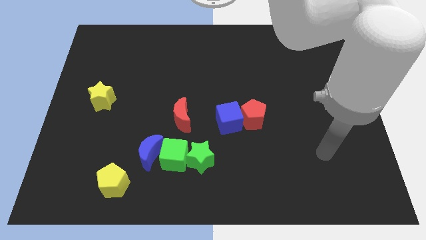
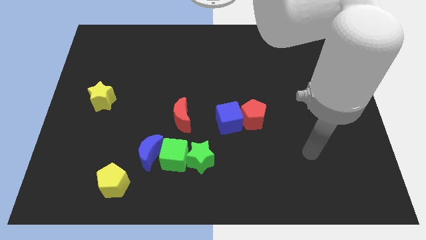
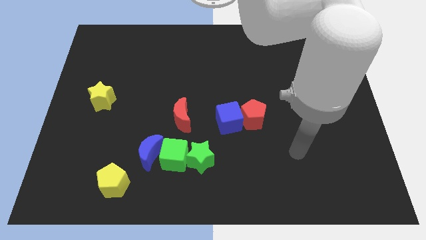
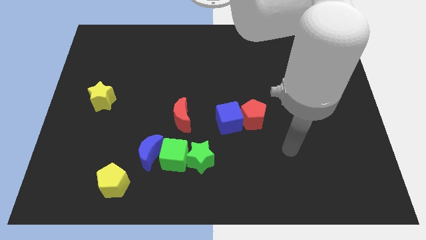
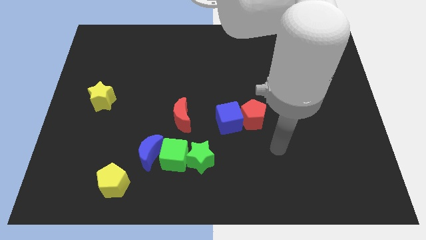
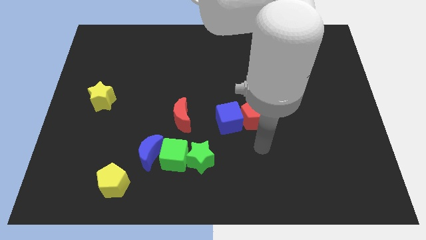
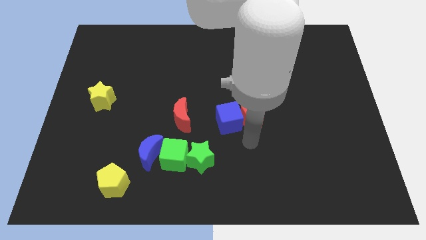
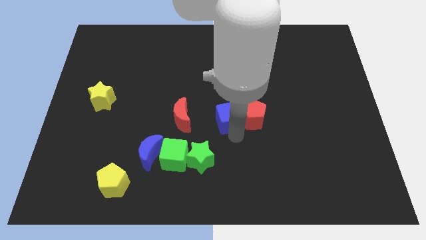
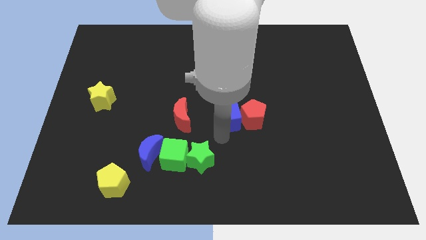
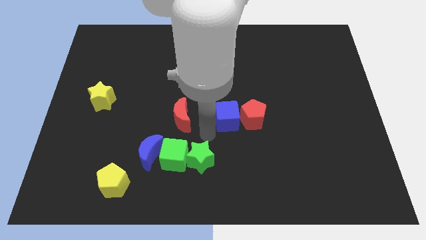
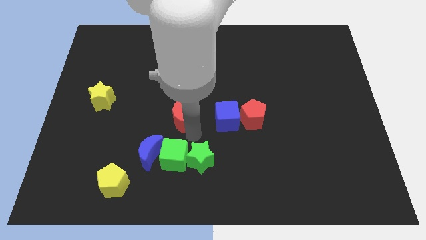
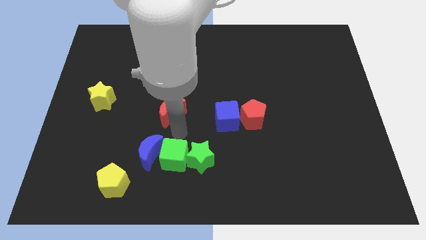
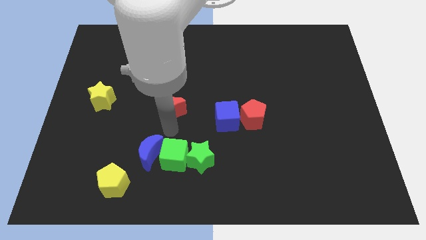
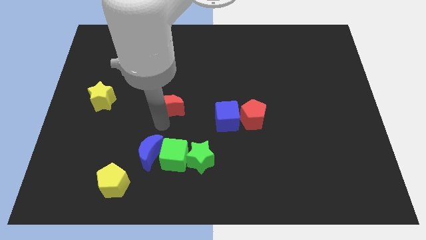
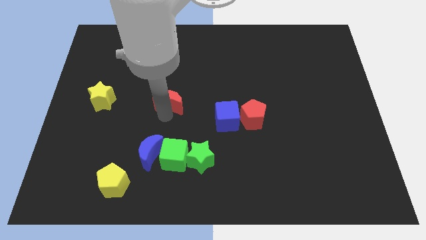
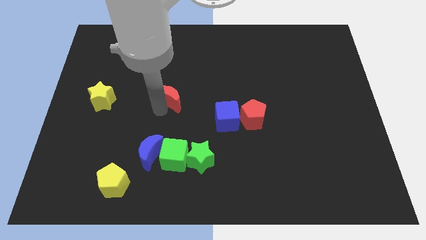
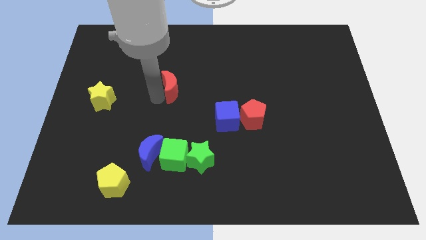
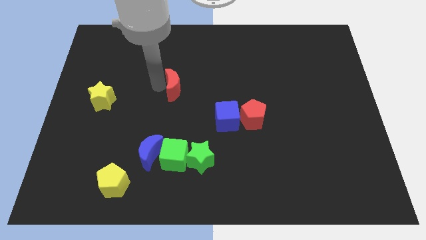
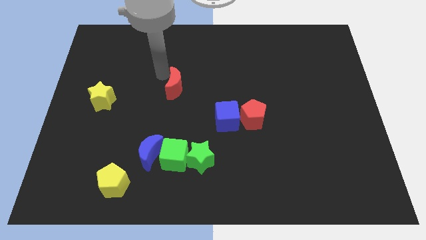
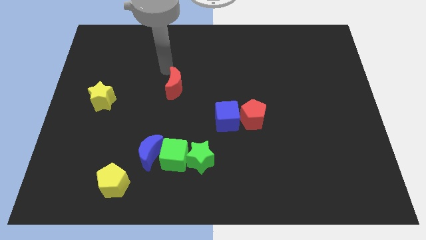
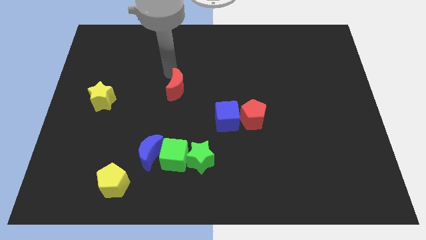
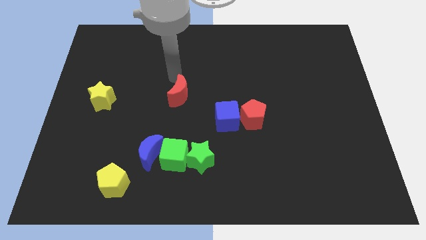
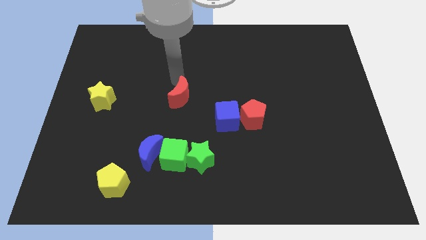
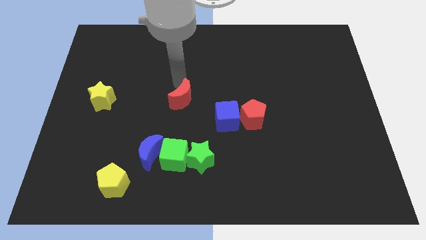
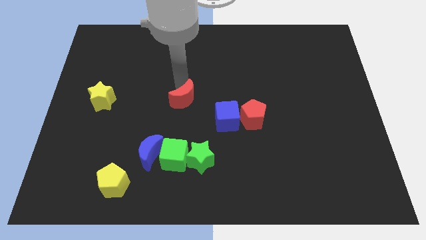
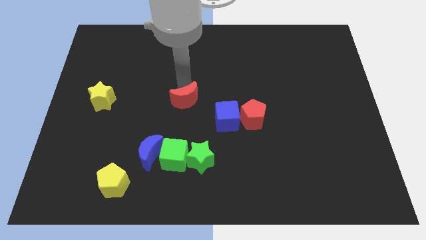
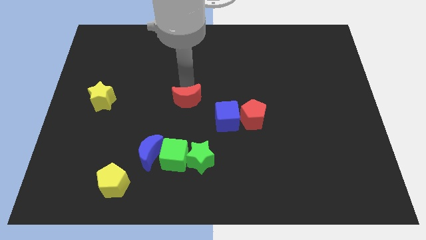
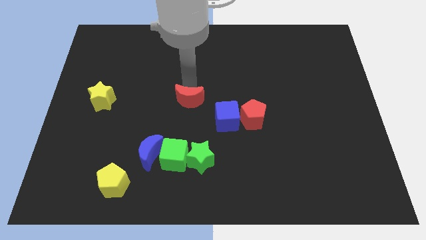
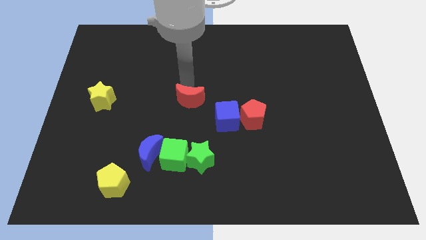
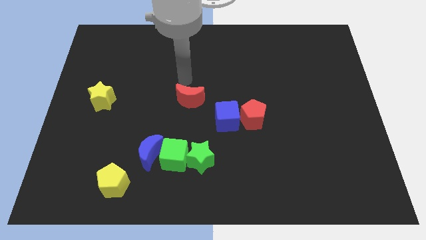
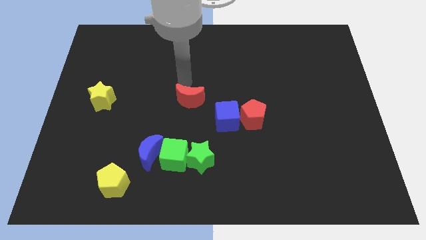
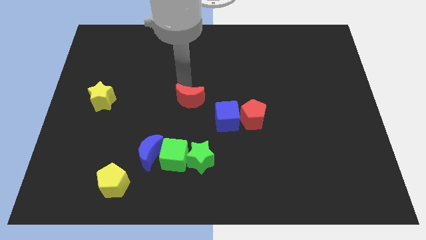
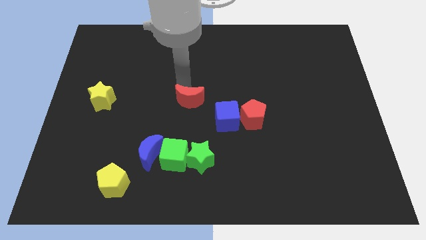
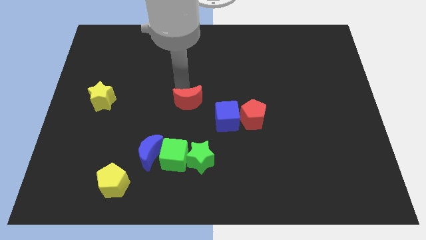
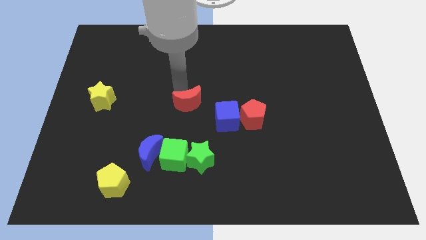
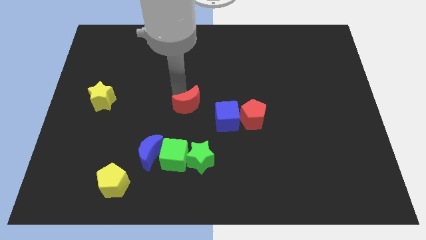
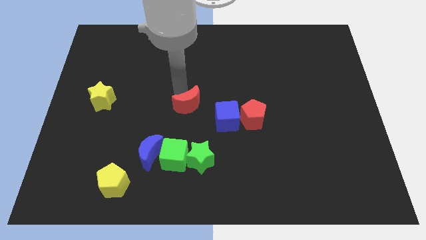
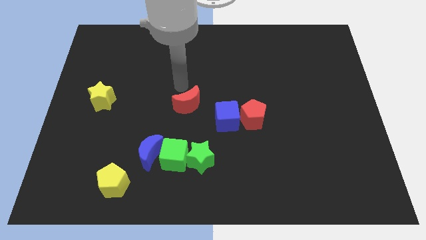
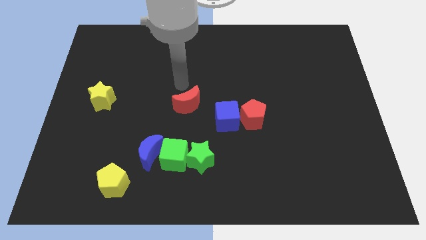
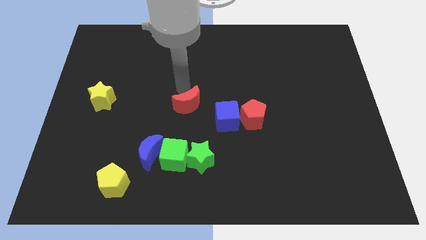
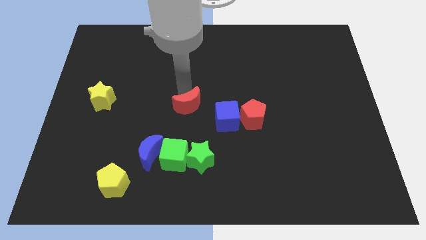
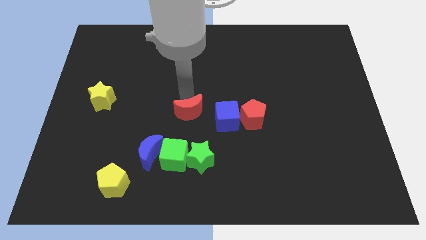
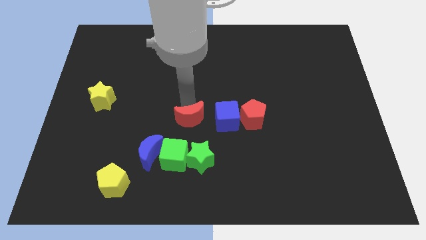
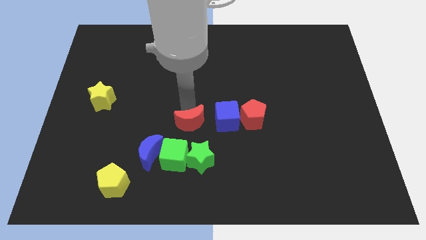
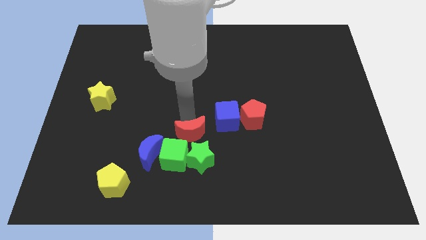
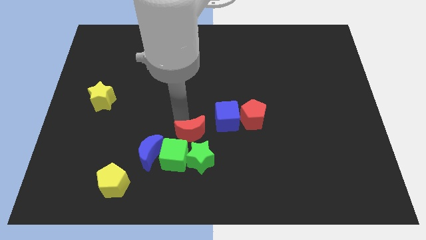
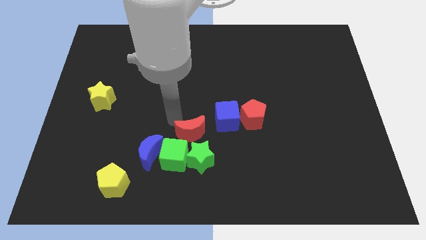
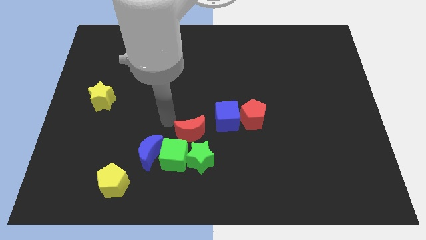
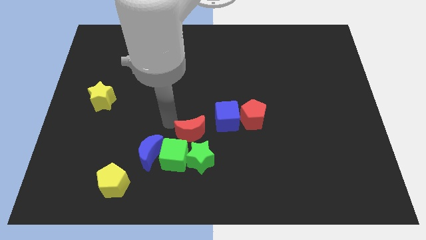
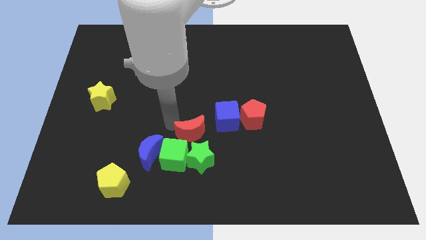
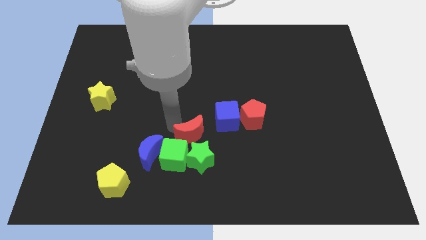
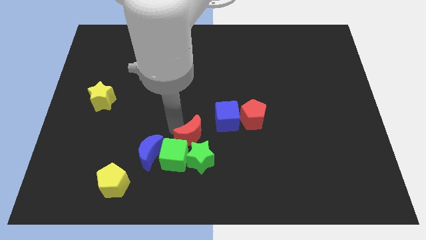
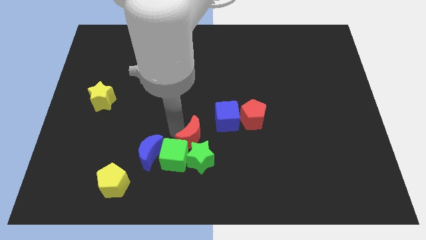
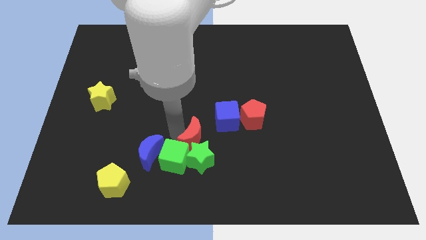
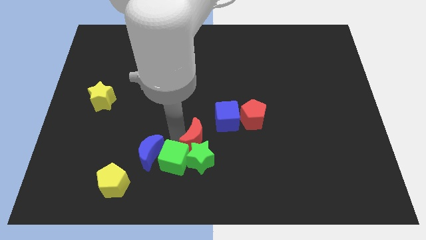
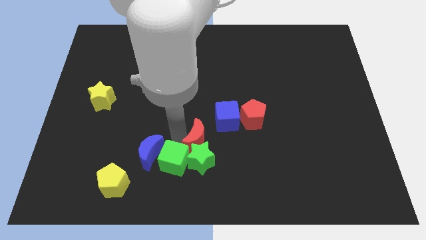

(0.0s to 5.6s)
push the red moon a bit downwards and then to the right

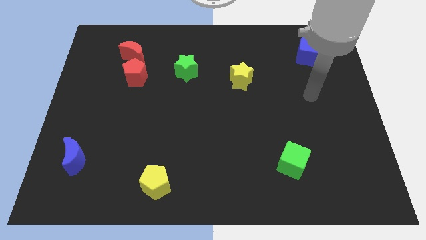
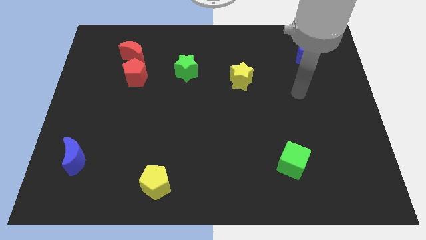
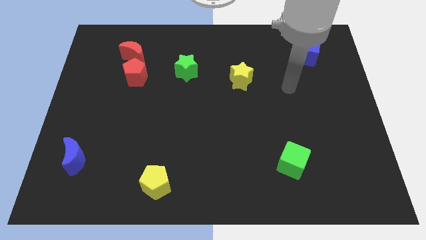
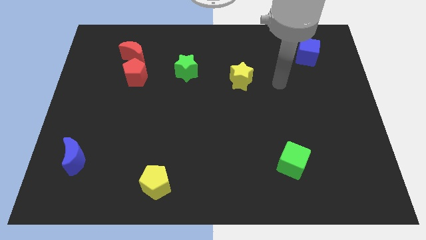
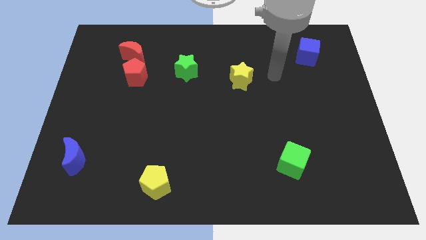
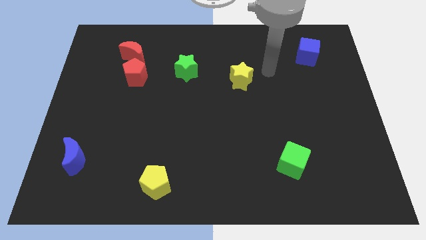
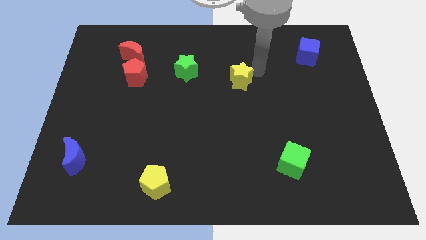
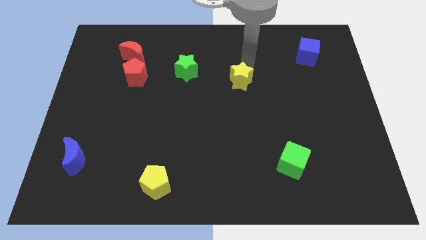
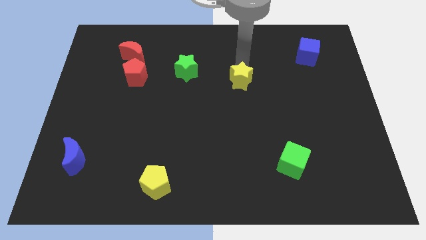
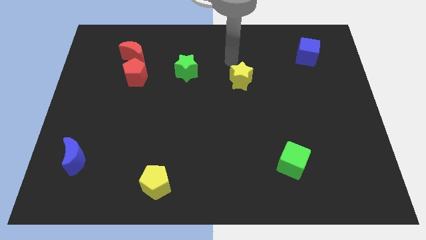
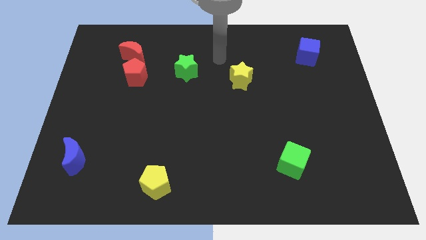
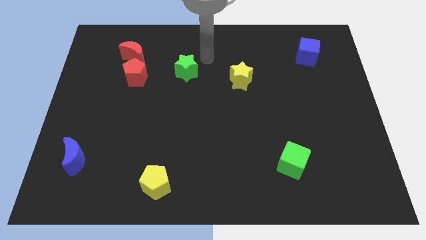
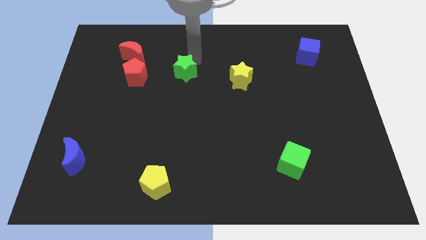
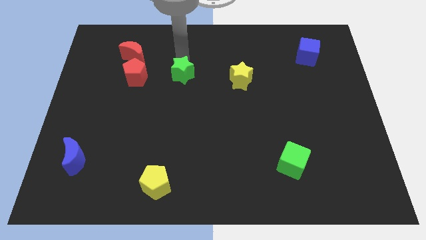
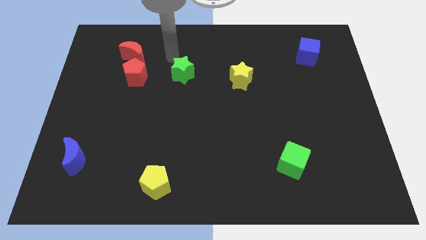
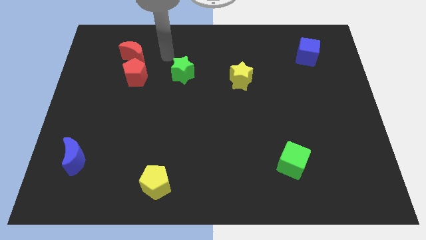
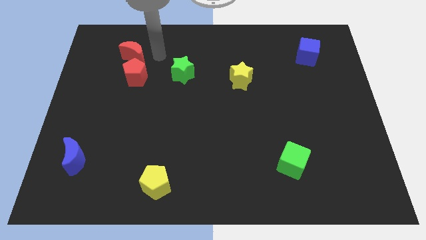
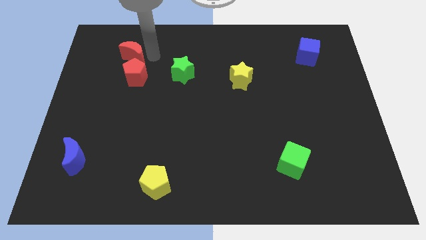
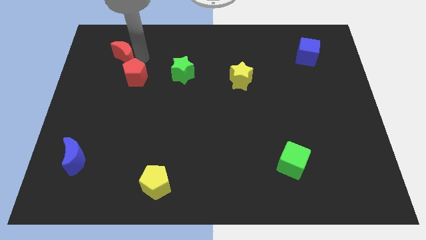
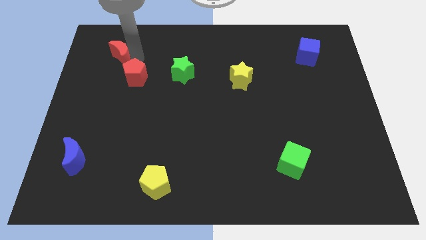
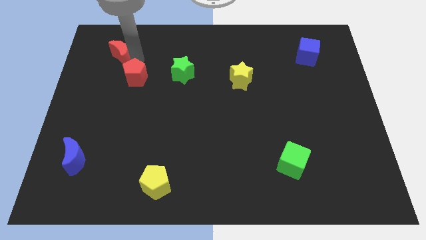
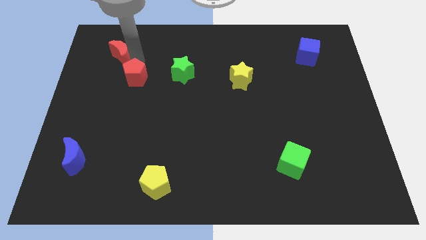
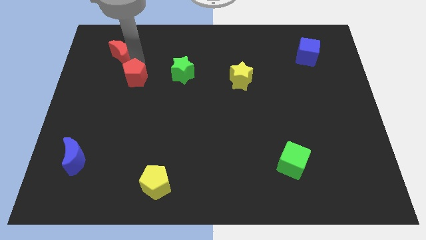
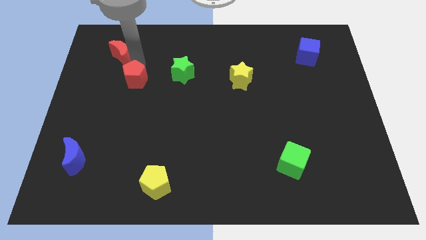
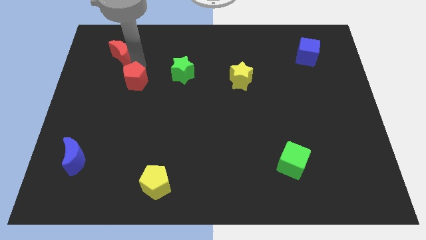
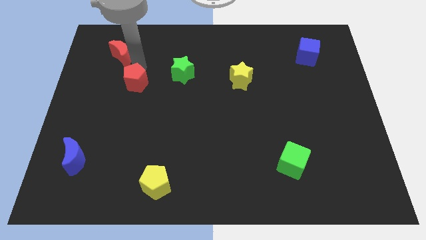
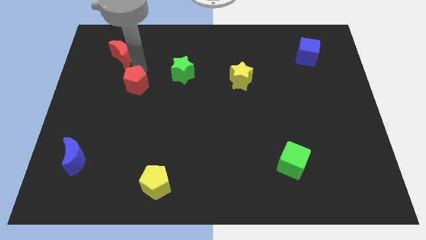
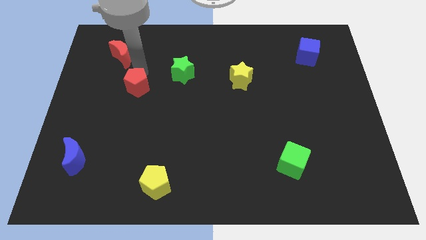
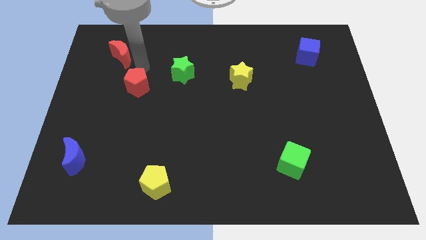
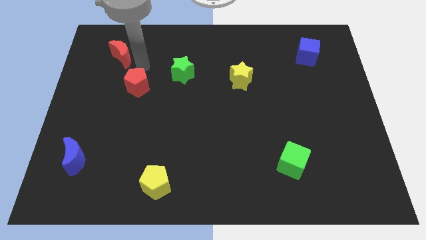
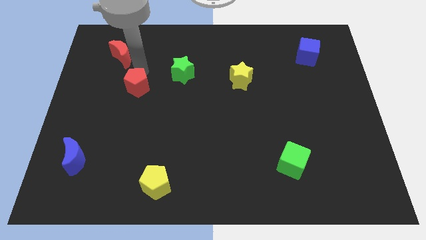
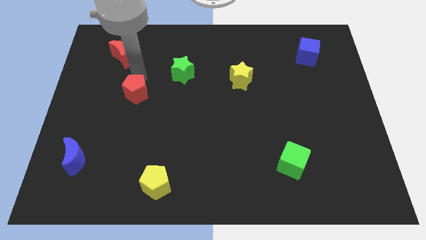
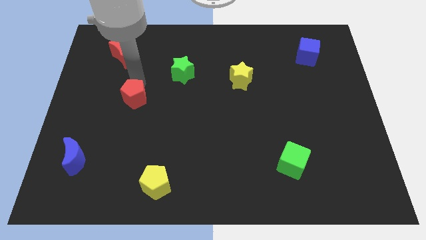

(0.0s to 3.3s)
push the red pentagon a little bit downwards
